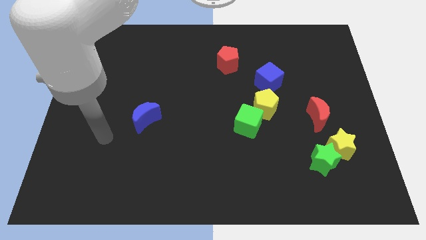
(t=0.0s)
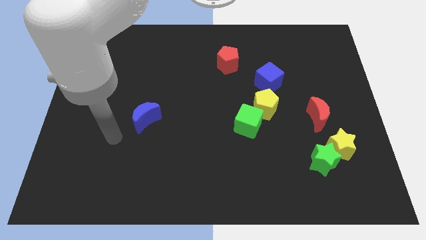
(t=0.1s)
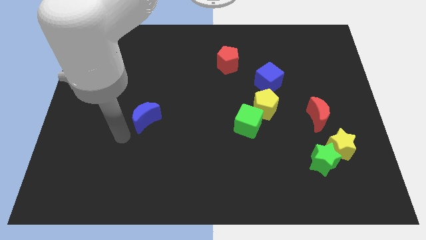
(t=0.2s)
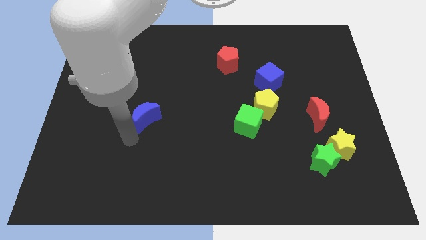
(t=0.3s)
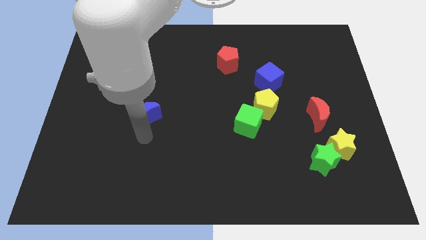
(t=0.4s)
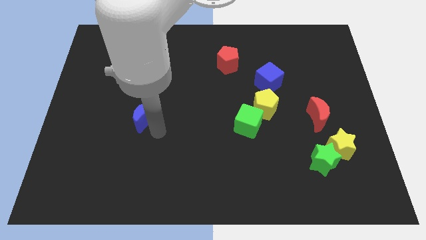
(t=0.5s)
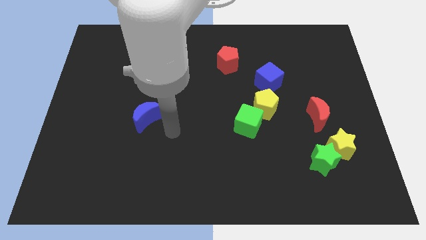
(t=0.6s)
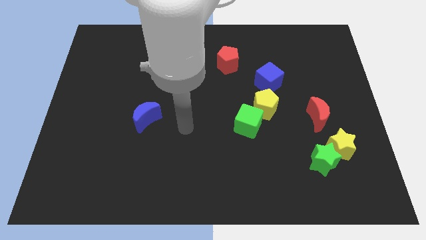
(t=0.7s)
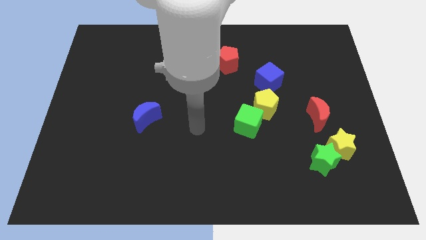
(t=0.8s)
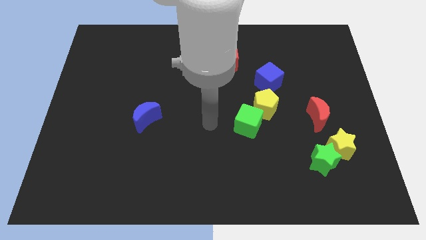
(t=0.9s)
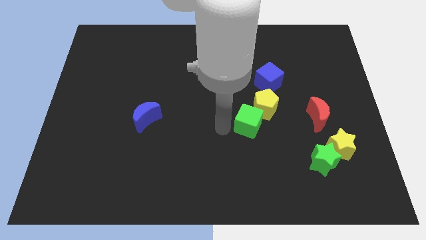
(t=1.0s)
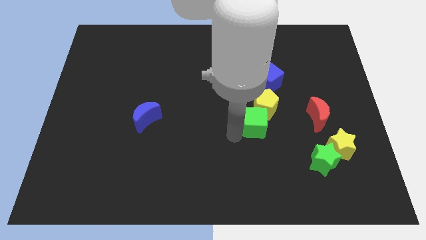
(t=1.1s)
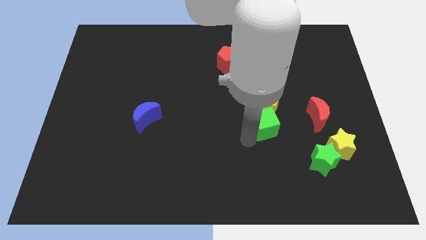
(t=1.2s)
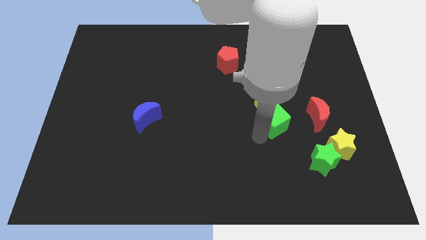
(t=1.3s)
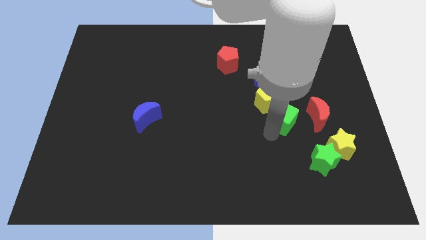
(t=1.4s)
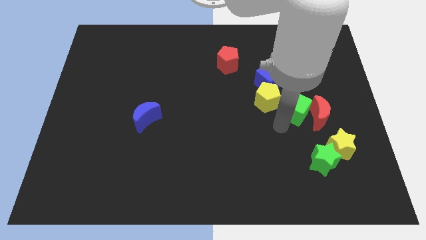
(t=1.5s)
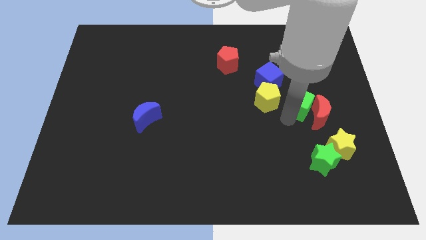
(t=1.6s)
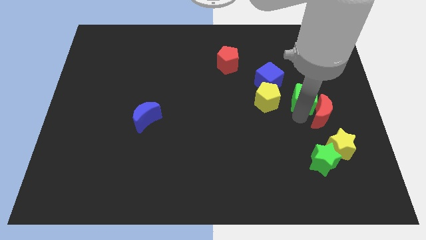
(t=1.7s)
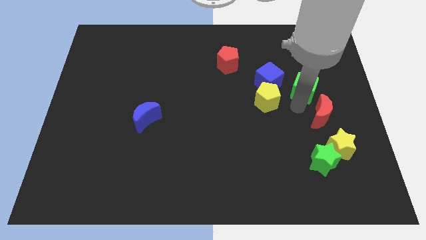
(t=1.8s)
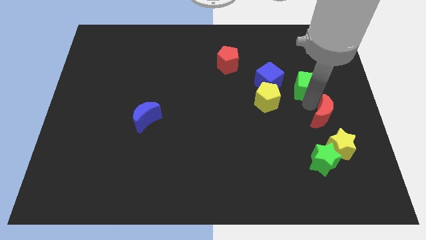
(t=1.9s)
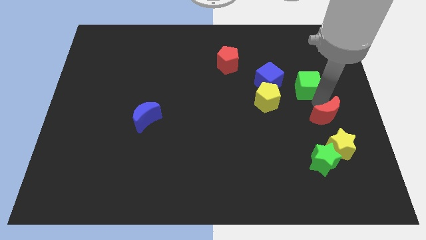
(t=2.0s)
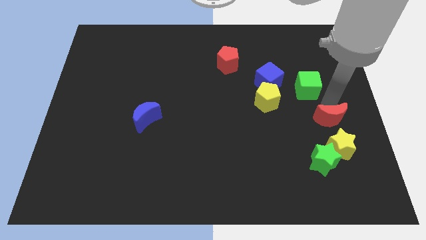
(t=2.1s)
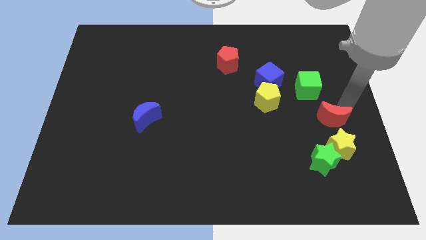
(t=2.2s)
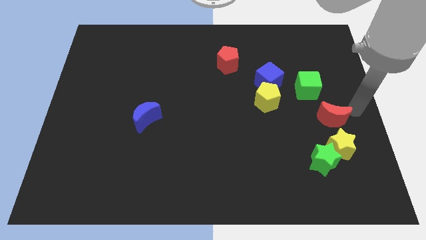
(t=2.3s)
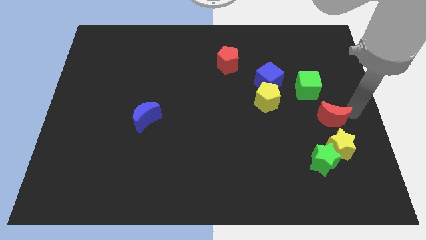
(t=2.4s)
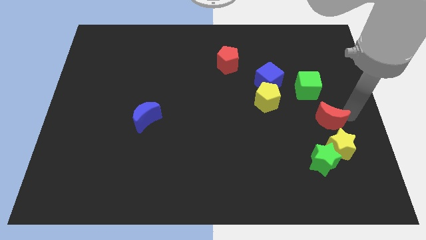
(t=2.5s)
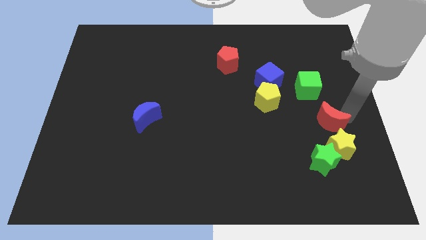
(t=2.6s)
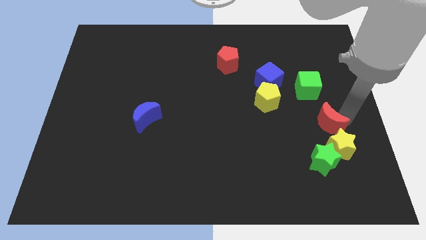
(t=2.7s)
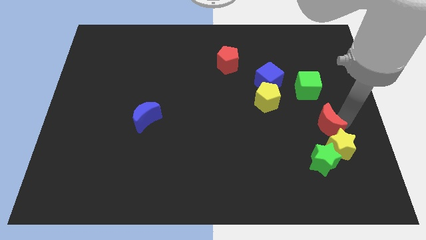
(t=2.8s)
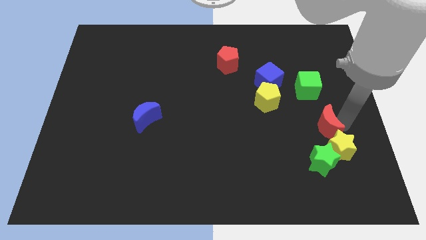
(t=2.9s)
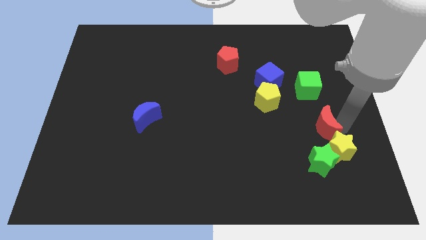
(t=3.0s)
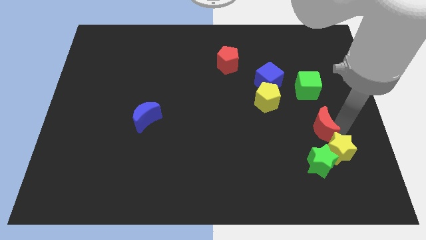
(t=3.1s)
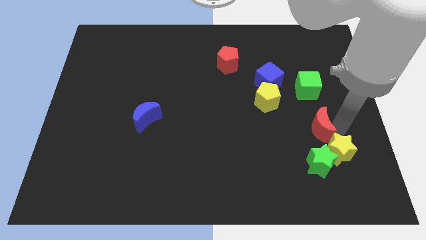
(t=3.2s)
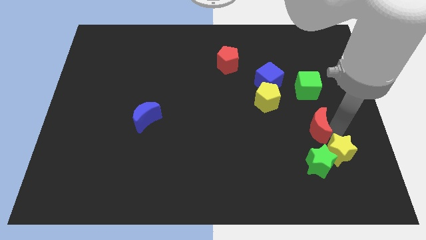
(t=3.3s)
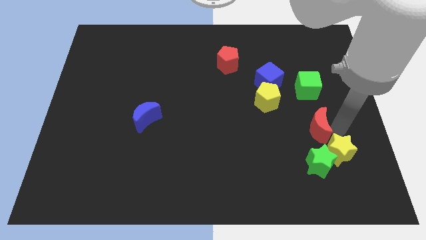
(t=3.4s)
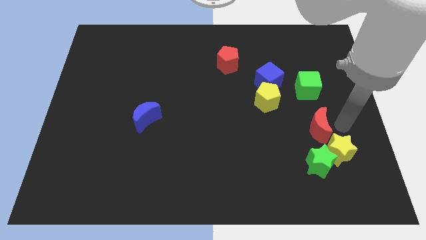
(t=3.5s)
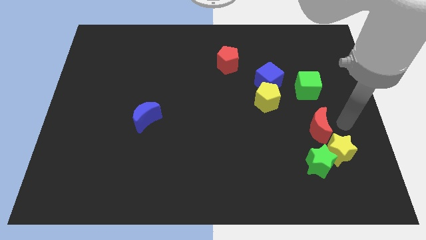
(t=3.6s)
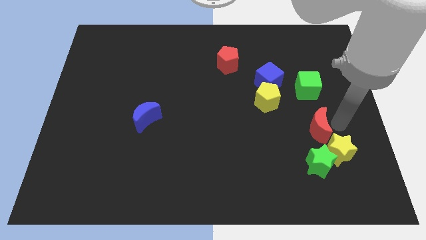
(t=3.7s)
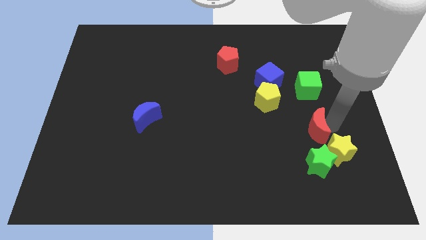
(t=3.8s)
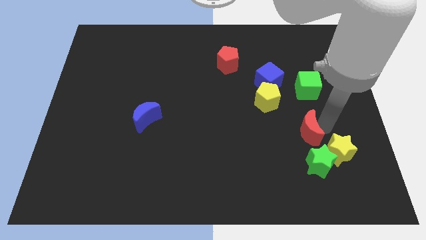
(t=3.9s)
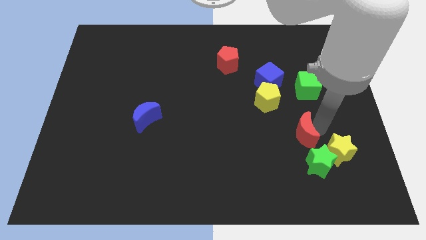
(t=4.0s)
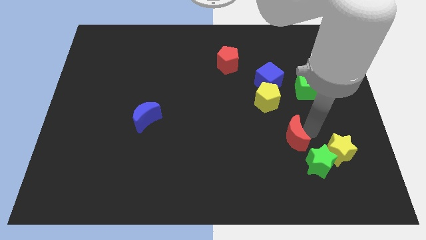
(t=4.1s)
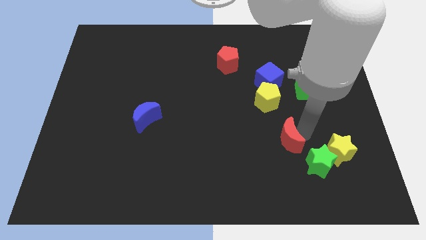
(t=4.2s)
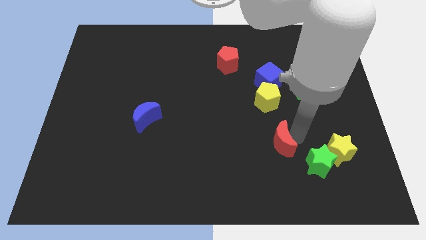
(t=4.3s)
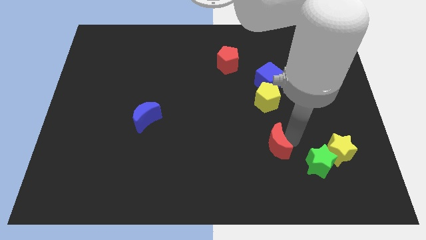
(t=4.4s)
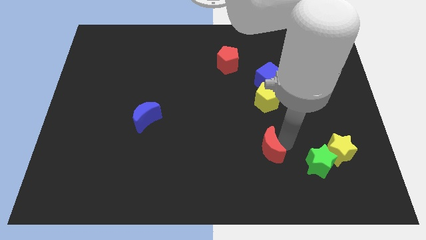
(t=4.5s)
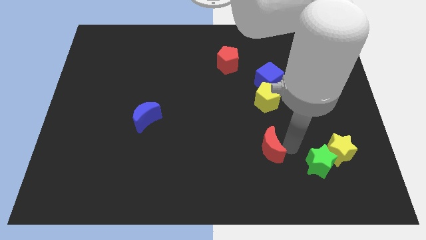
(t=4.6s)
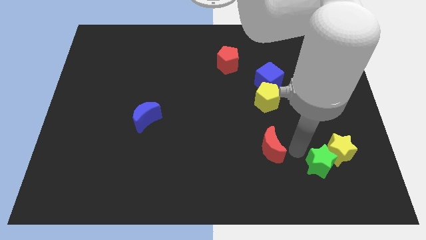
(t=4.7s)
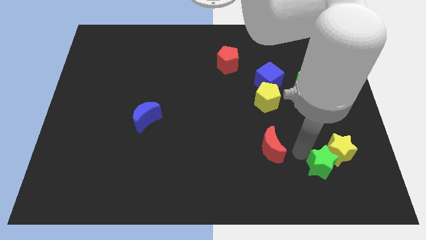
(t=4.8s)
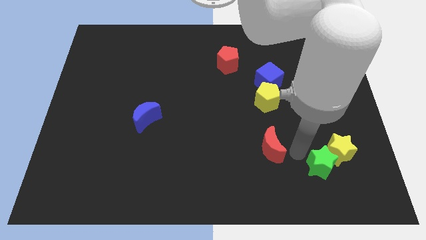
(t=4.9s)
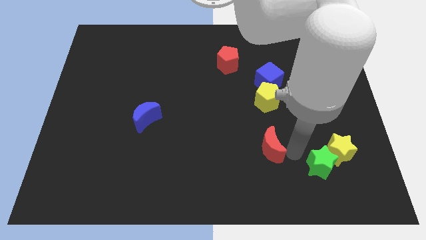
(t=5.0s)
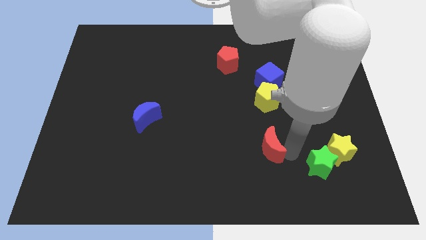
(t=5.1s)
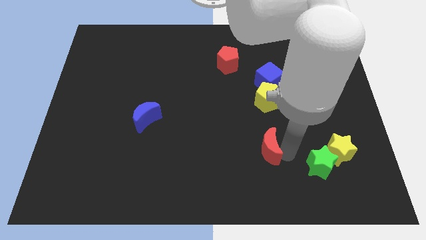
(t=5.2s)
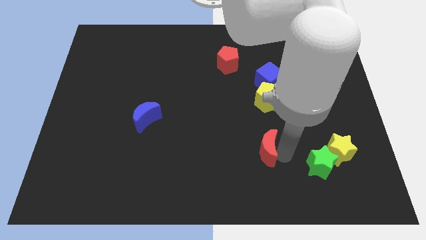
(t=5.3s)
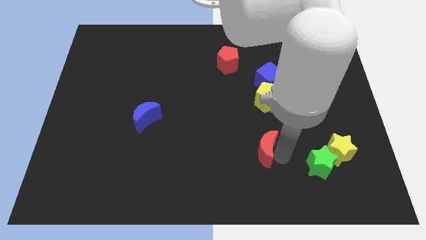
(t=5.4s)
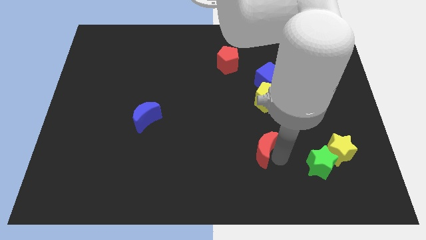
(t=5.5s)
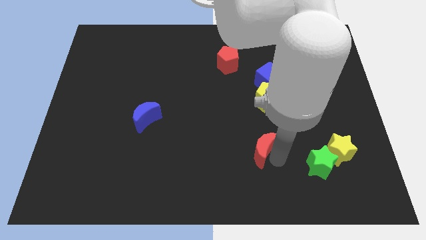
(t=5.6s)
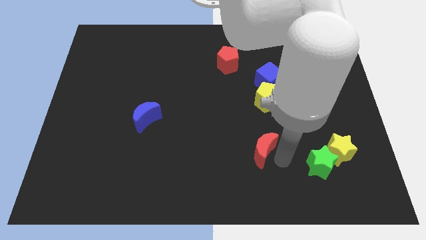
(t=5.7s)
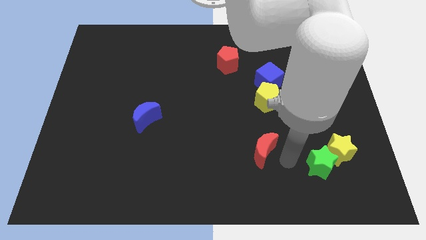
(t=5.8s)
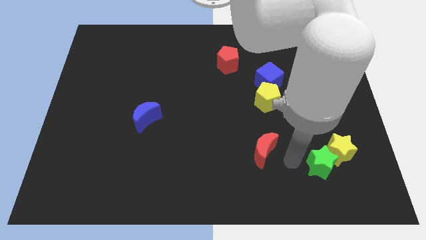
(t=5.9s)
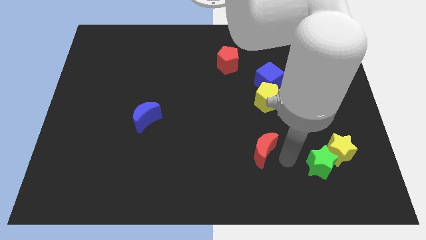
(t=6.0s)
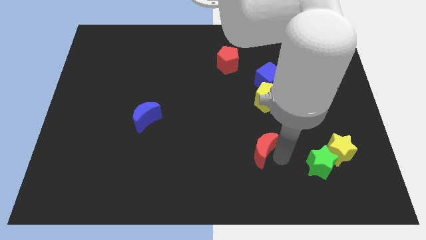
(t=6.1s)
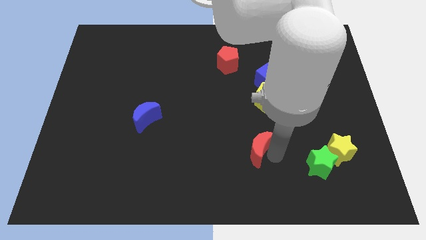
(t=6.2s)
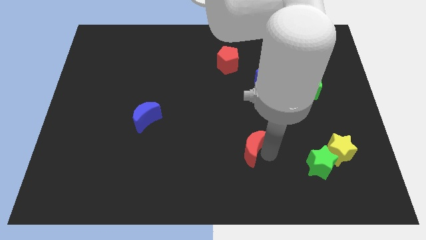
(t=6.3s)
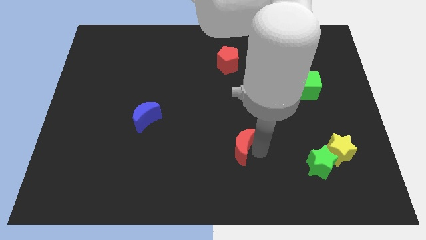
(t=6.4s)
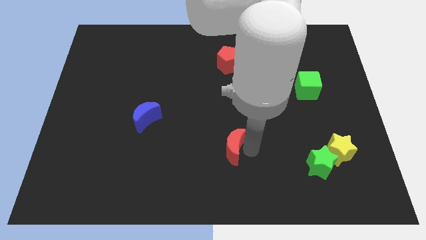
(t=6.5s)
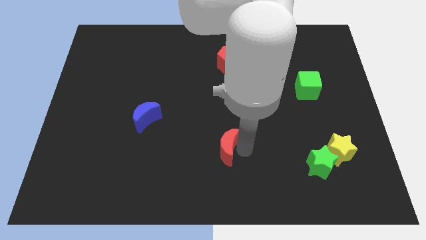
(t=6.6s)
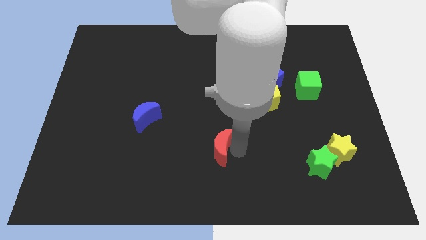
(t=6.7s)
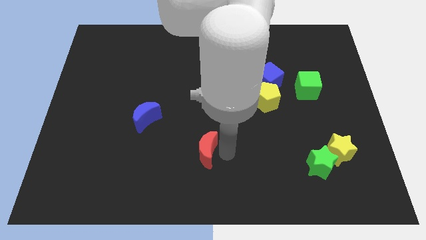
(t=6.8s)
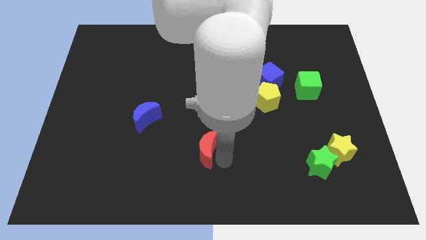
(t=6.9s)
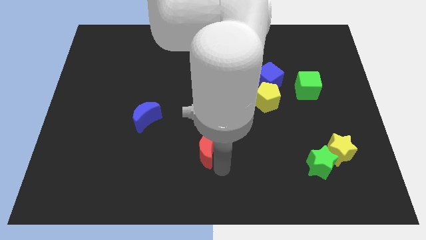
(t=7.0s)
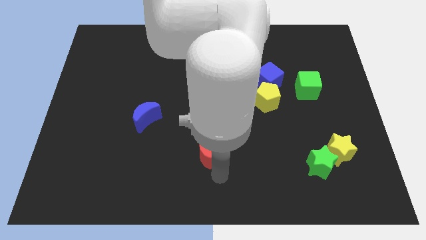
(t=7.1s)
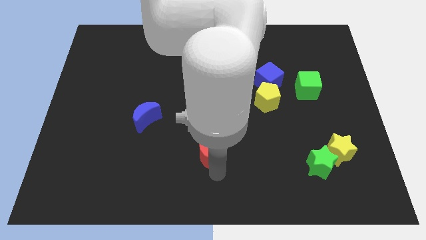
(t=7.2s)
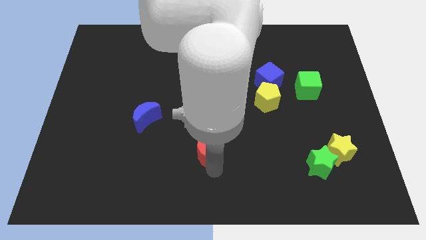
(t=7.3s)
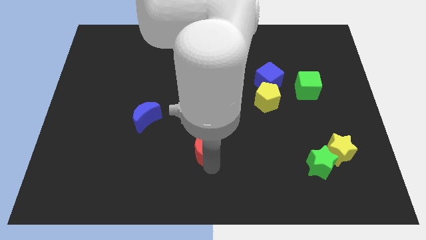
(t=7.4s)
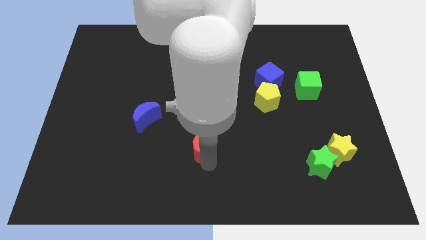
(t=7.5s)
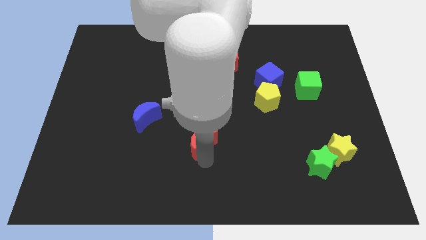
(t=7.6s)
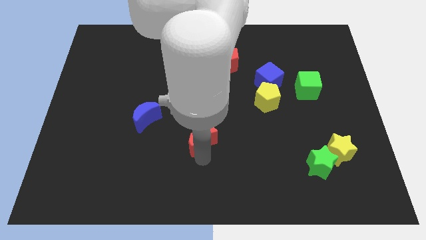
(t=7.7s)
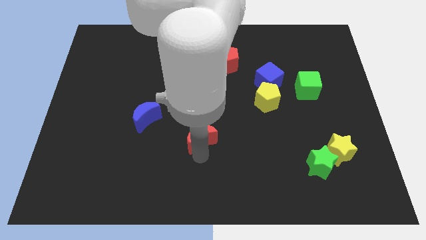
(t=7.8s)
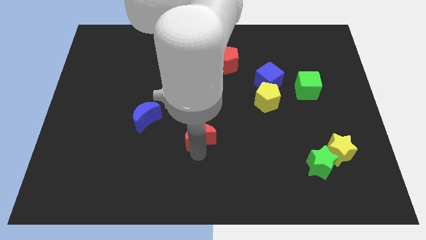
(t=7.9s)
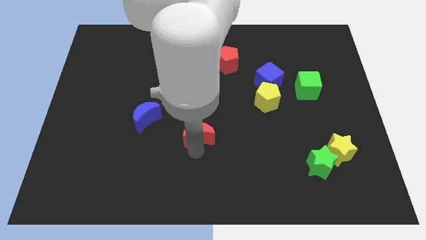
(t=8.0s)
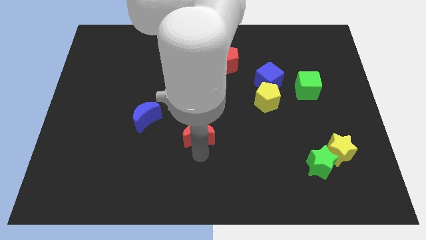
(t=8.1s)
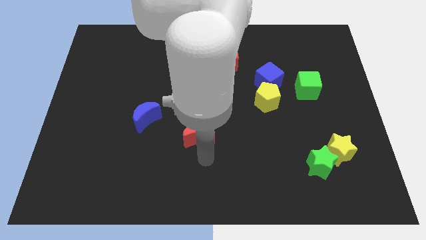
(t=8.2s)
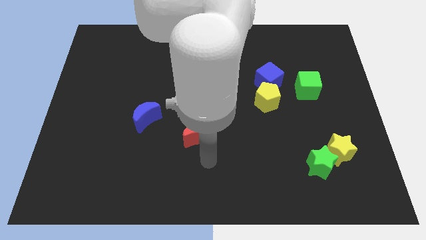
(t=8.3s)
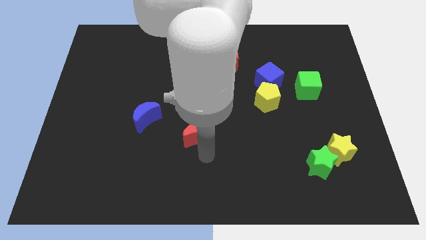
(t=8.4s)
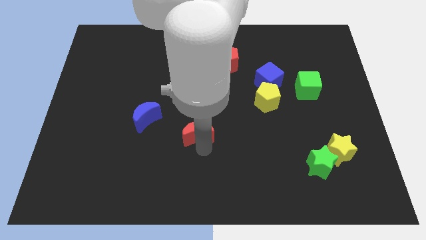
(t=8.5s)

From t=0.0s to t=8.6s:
push the red moon to the right side of the blue moon
